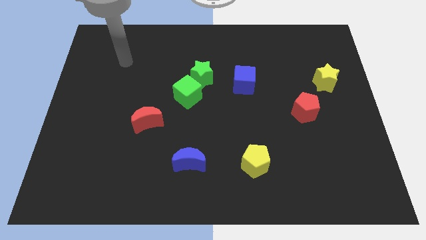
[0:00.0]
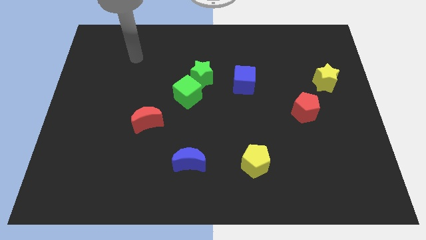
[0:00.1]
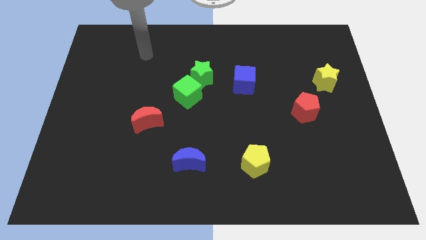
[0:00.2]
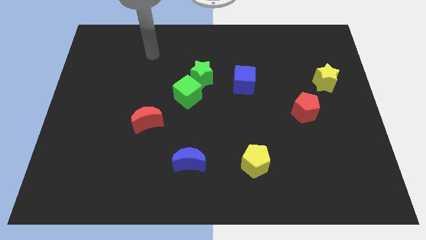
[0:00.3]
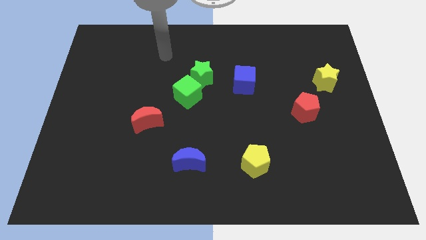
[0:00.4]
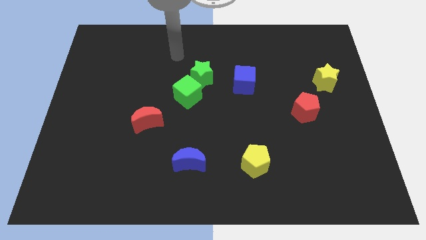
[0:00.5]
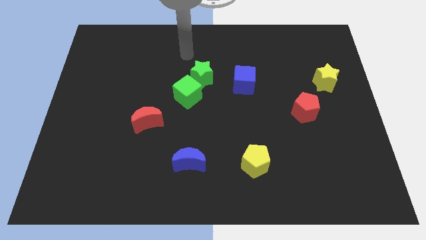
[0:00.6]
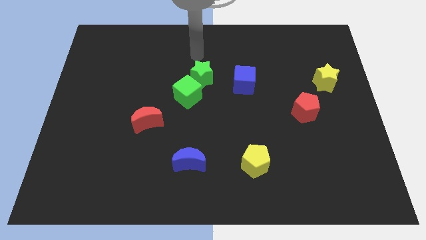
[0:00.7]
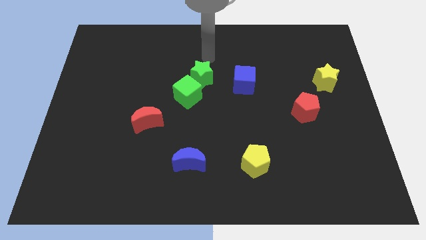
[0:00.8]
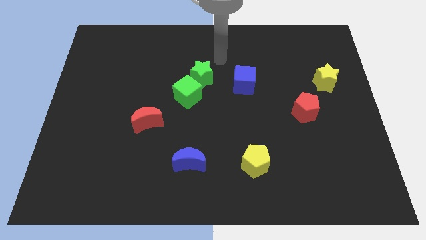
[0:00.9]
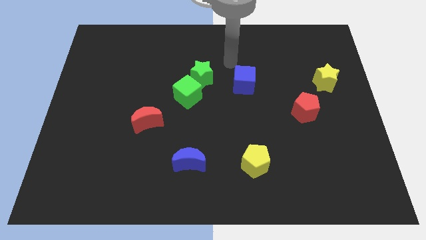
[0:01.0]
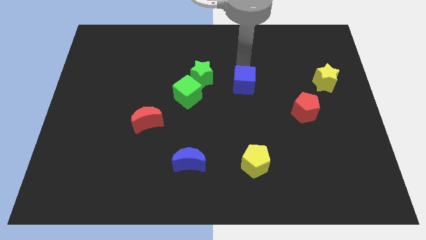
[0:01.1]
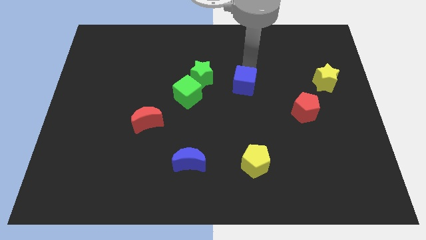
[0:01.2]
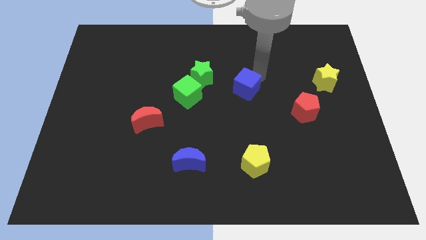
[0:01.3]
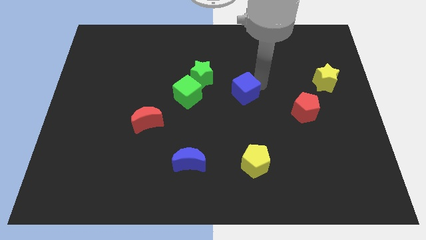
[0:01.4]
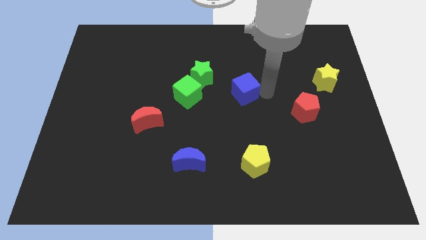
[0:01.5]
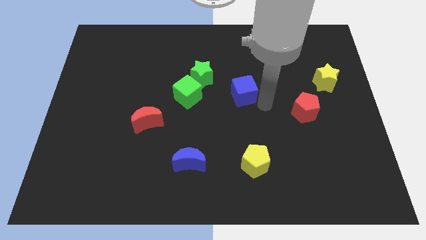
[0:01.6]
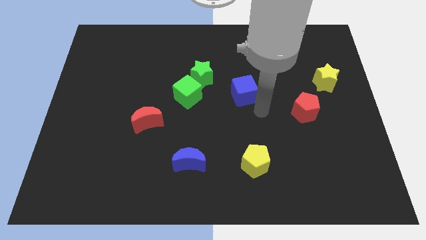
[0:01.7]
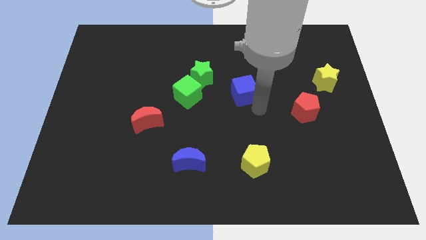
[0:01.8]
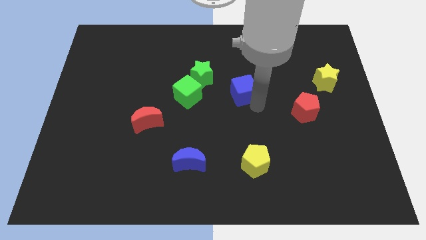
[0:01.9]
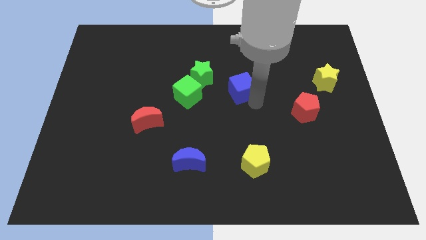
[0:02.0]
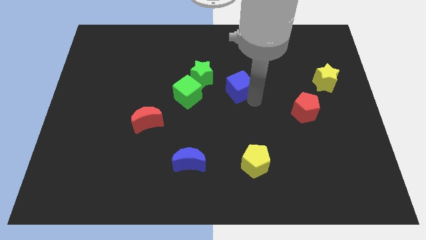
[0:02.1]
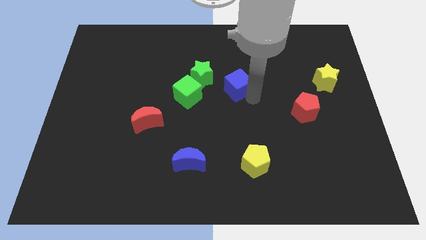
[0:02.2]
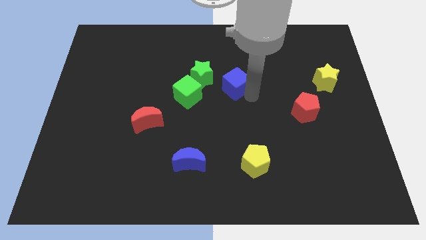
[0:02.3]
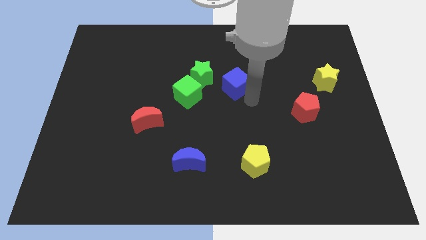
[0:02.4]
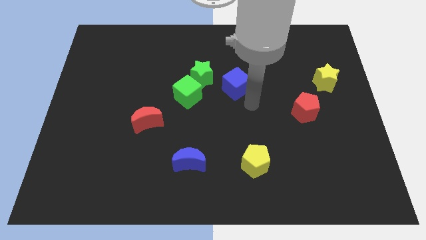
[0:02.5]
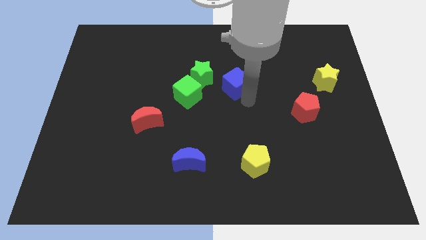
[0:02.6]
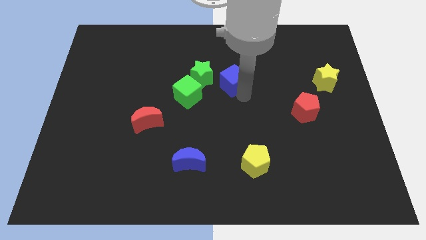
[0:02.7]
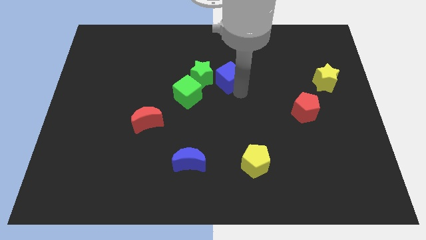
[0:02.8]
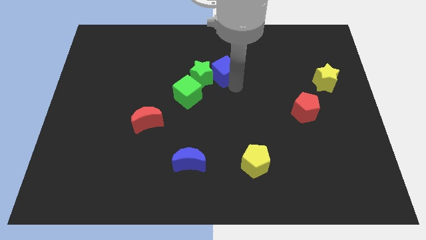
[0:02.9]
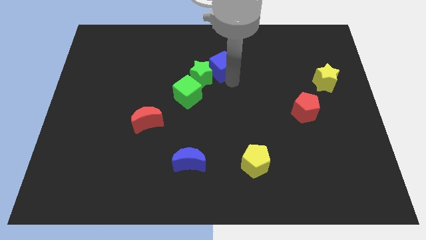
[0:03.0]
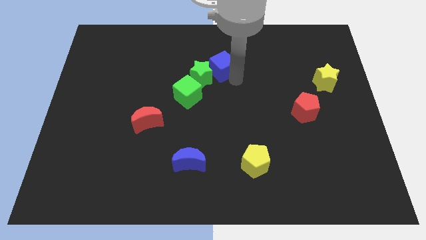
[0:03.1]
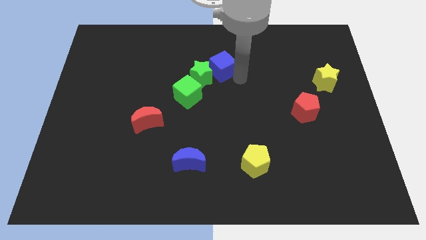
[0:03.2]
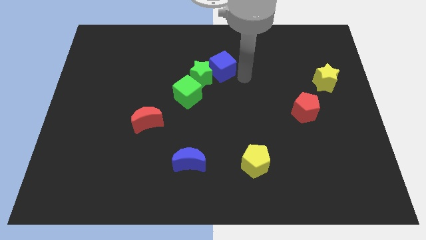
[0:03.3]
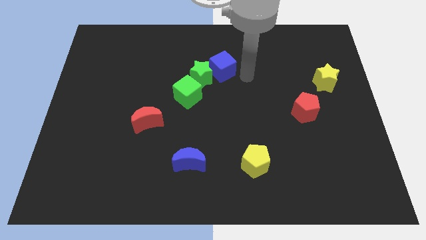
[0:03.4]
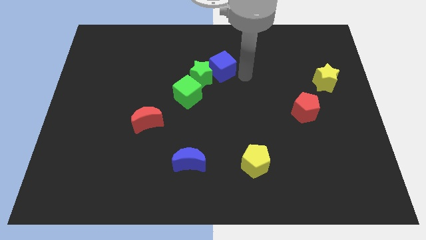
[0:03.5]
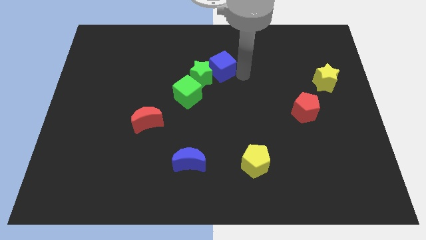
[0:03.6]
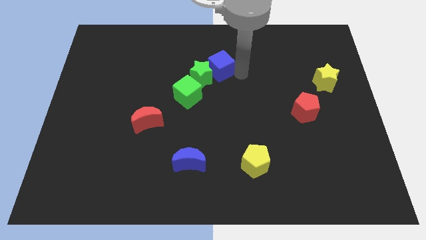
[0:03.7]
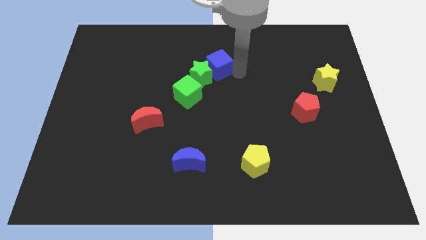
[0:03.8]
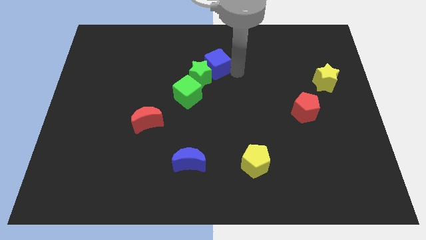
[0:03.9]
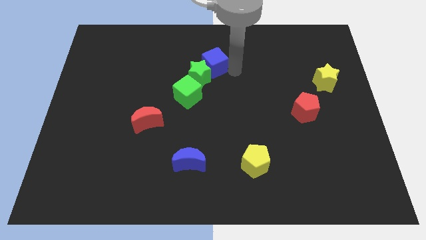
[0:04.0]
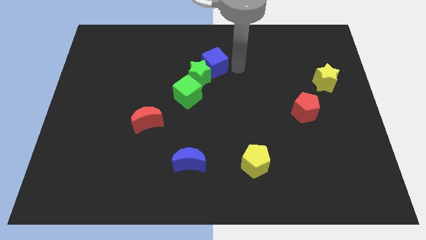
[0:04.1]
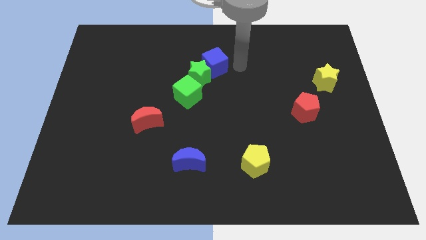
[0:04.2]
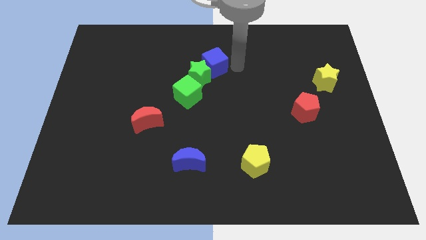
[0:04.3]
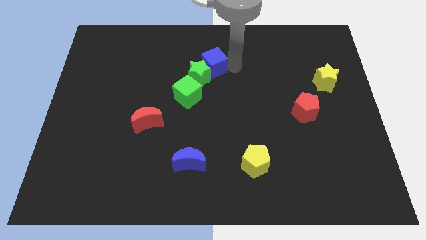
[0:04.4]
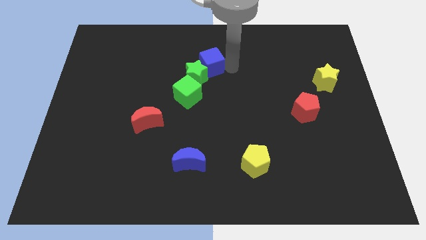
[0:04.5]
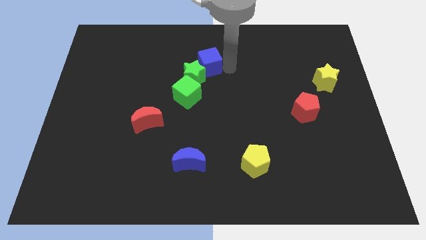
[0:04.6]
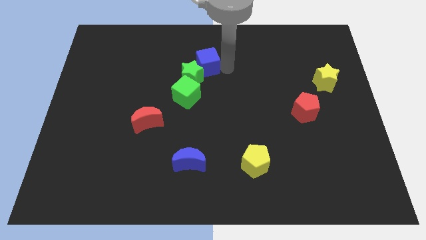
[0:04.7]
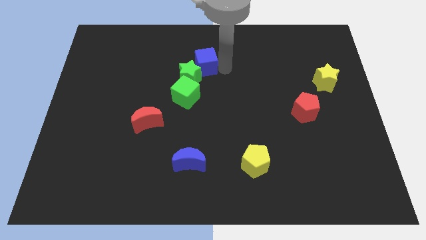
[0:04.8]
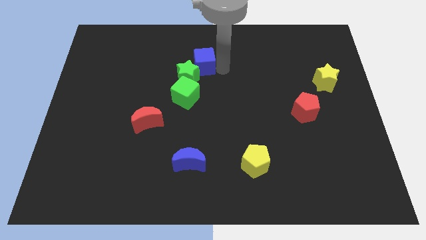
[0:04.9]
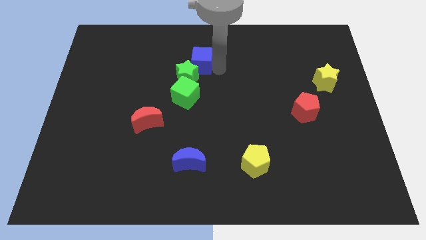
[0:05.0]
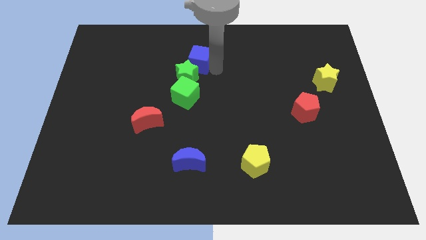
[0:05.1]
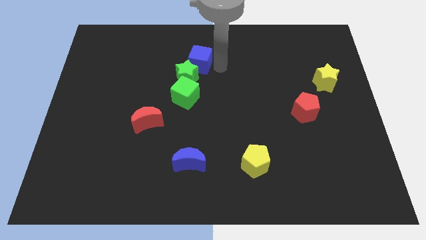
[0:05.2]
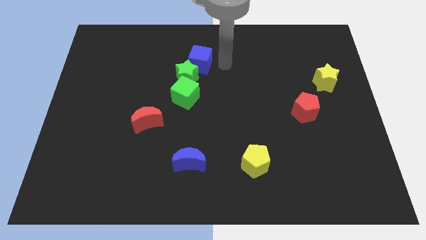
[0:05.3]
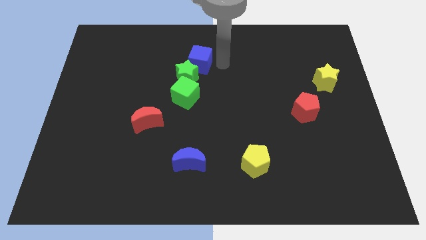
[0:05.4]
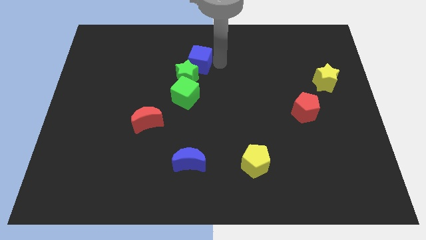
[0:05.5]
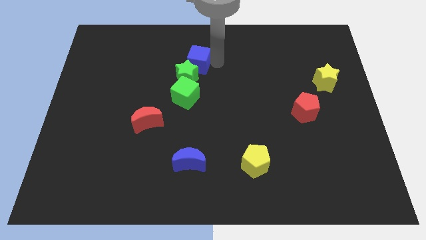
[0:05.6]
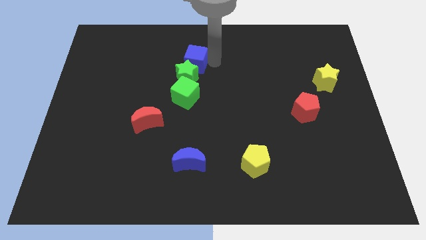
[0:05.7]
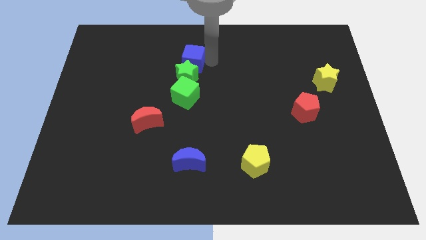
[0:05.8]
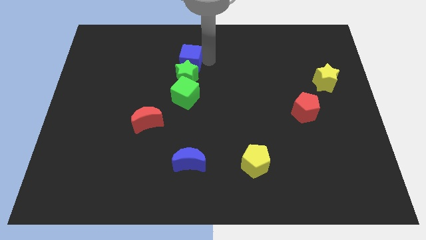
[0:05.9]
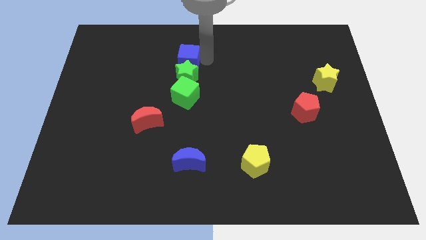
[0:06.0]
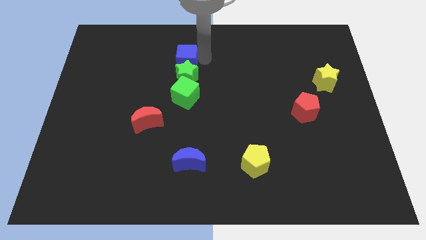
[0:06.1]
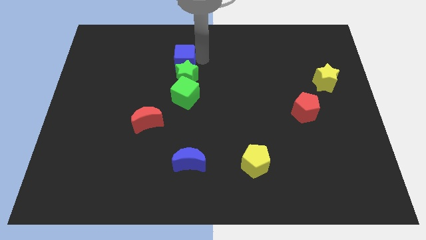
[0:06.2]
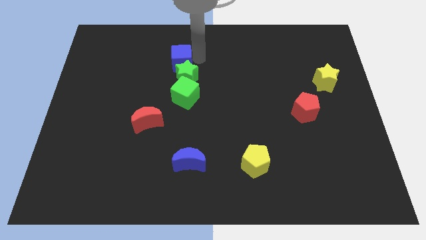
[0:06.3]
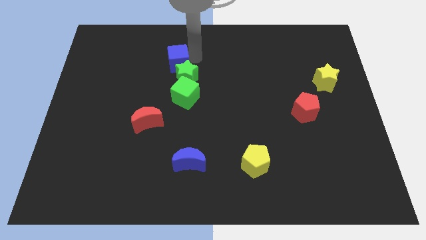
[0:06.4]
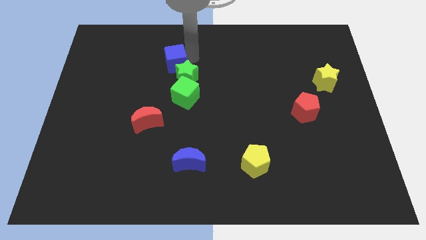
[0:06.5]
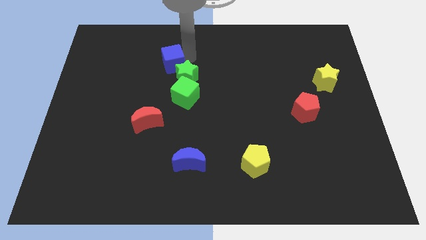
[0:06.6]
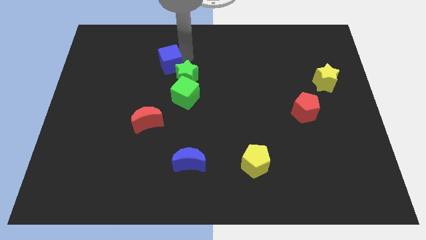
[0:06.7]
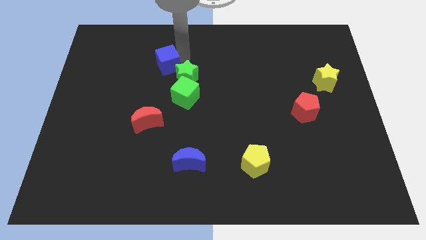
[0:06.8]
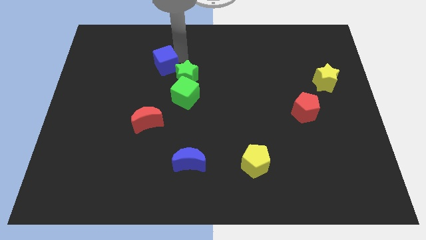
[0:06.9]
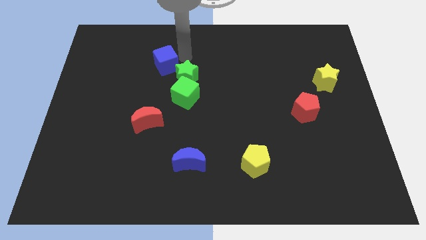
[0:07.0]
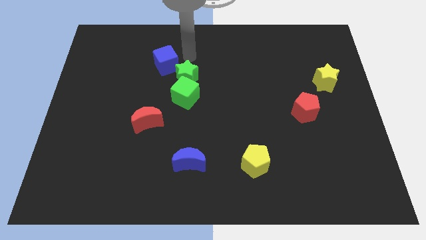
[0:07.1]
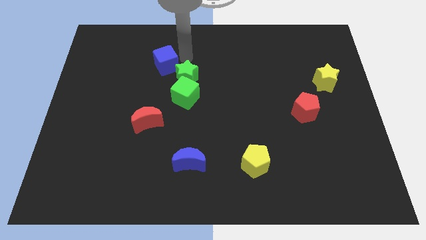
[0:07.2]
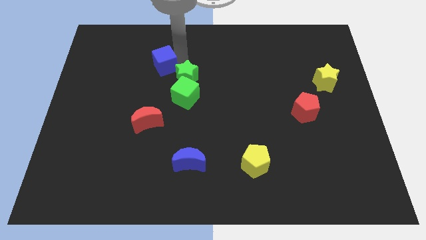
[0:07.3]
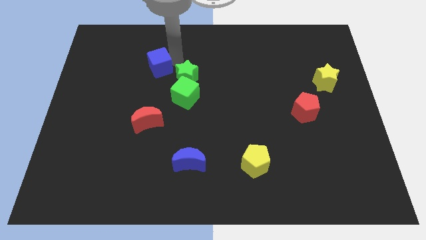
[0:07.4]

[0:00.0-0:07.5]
push the blue cube left
